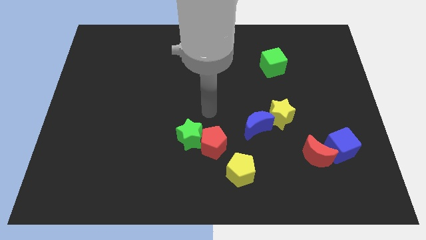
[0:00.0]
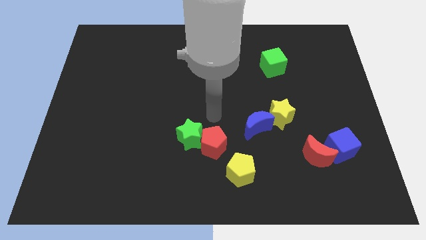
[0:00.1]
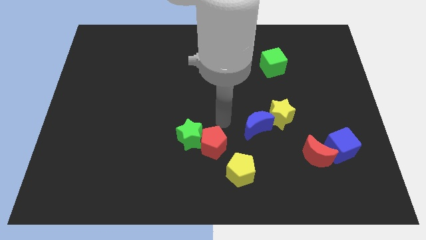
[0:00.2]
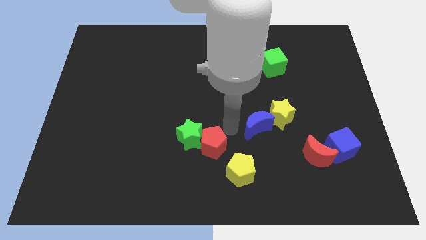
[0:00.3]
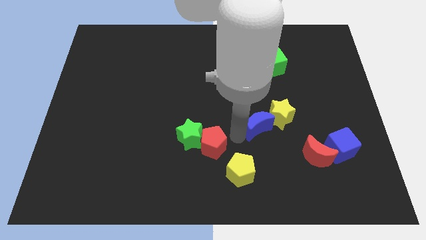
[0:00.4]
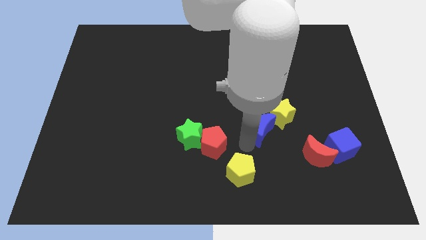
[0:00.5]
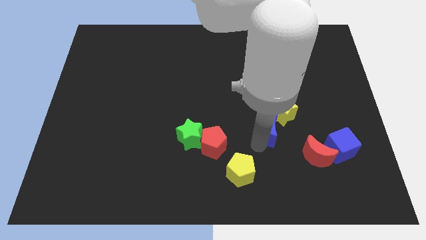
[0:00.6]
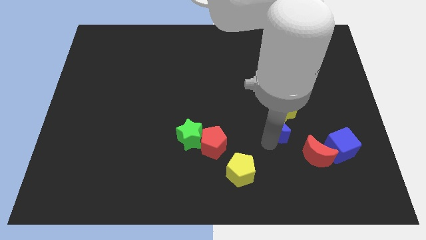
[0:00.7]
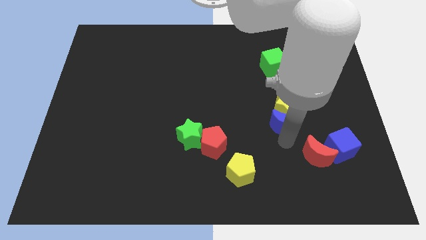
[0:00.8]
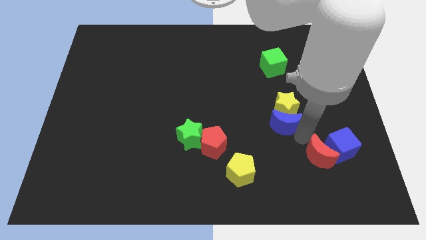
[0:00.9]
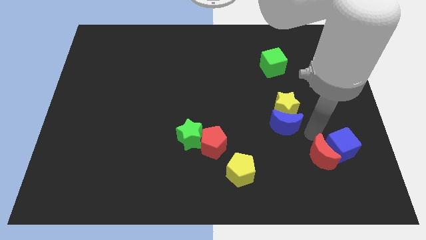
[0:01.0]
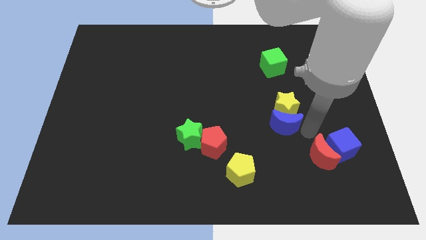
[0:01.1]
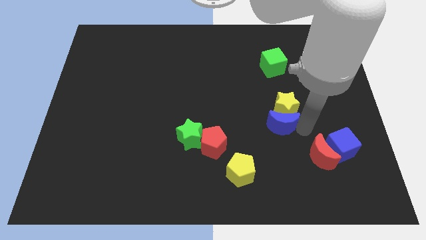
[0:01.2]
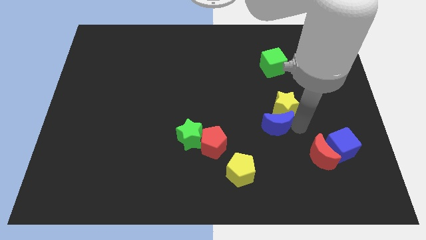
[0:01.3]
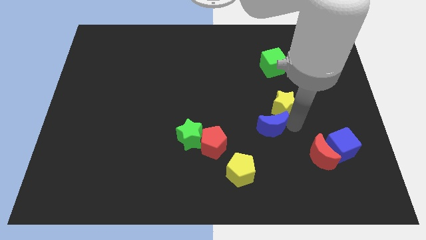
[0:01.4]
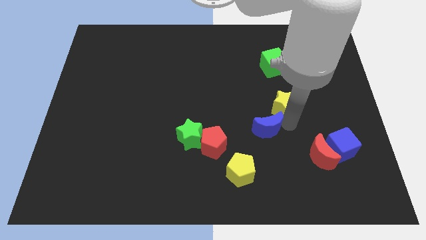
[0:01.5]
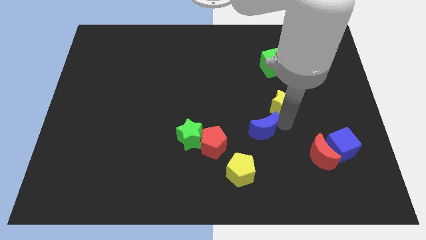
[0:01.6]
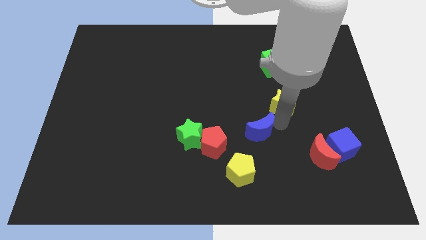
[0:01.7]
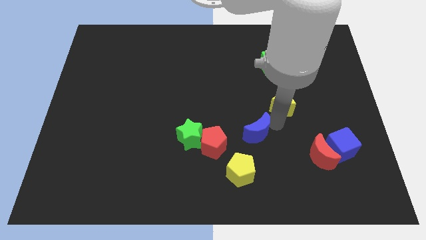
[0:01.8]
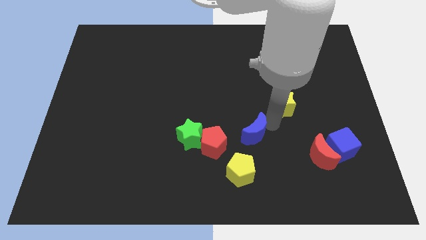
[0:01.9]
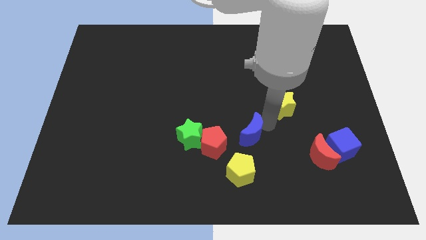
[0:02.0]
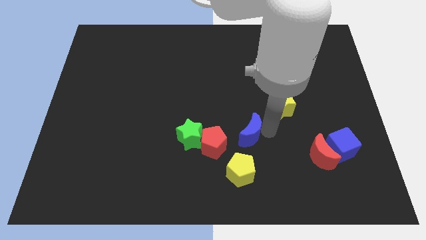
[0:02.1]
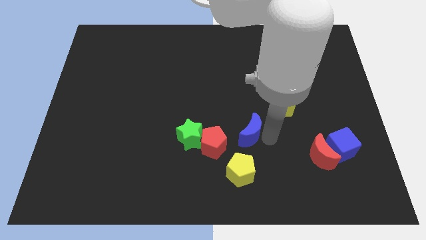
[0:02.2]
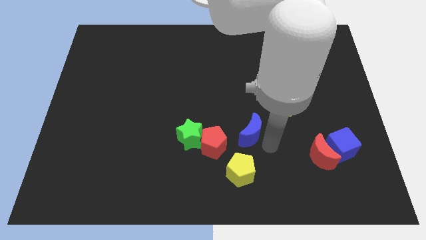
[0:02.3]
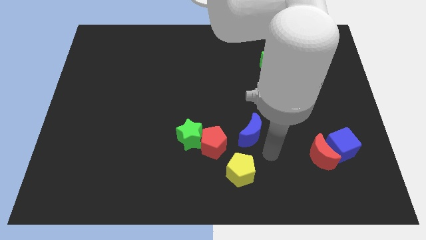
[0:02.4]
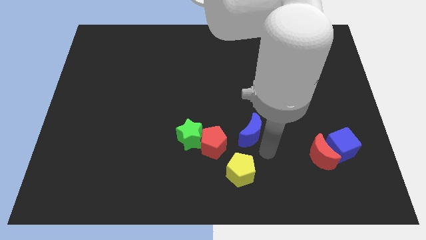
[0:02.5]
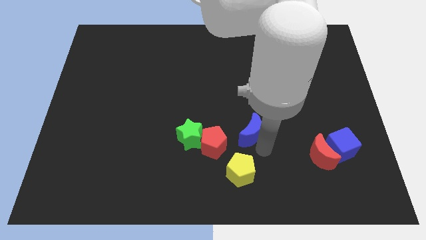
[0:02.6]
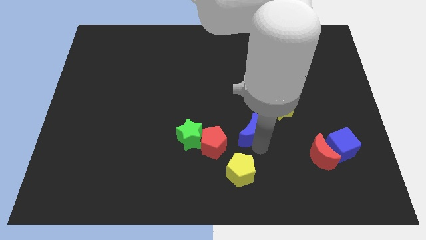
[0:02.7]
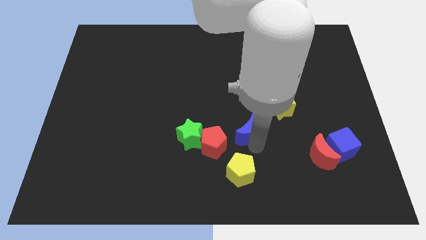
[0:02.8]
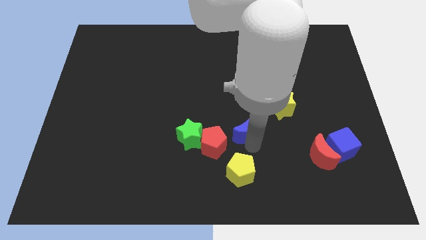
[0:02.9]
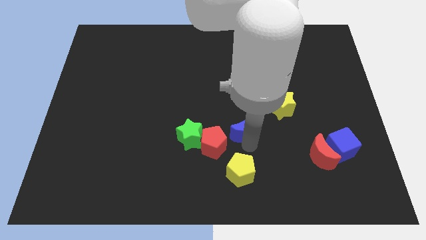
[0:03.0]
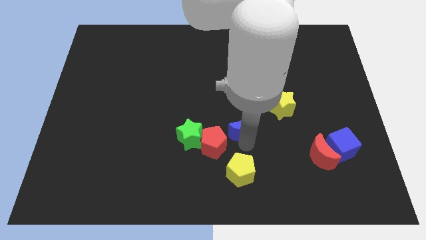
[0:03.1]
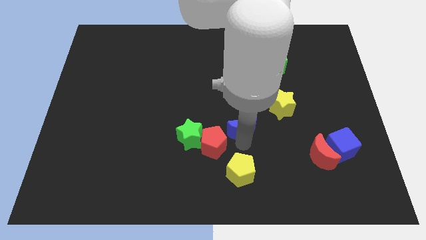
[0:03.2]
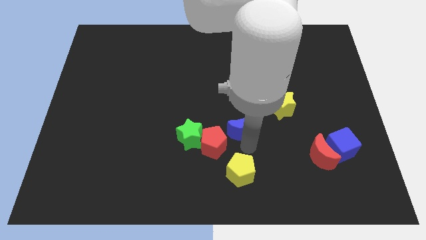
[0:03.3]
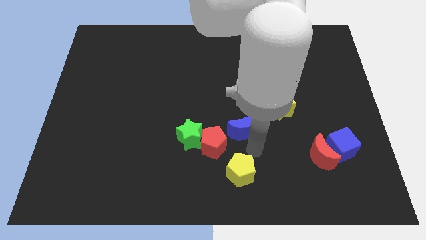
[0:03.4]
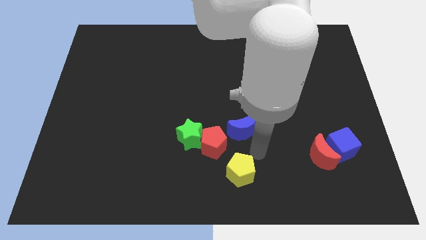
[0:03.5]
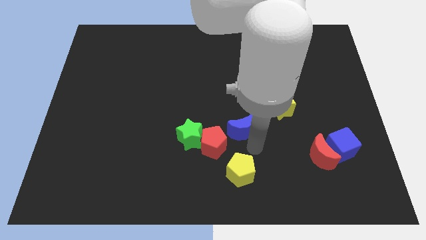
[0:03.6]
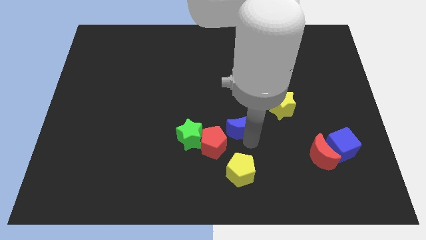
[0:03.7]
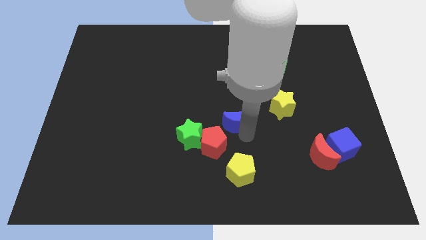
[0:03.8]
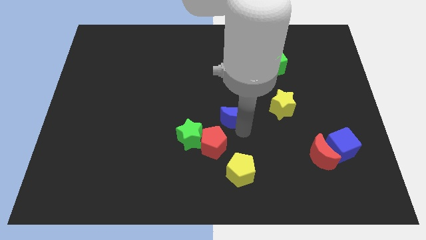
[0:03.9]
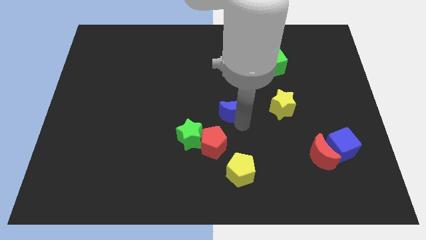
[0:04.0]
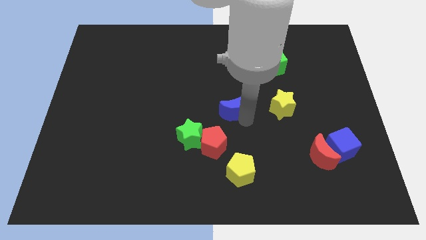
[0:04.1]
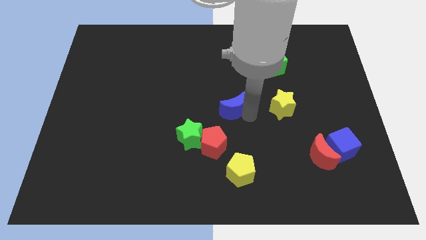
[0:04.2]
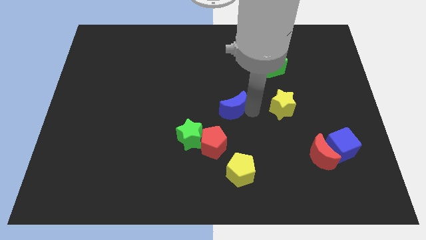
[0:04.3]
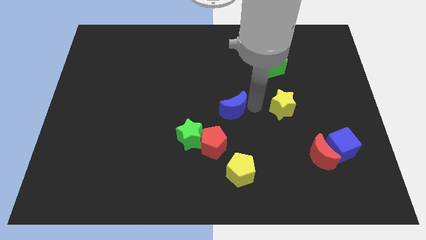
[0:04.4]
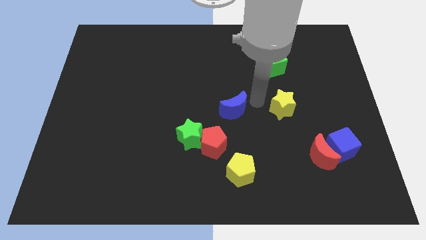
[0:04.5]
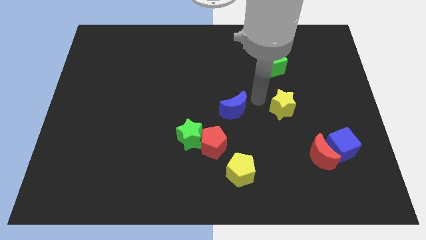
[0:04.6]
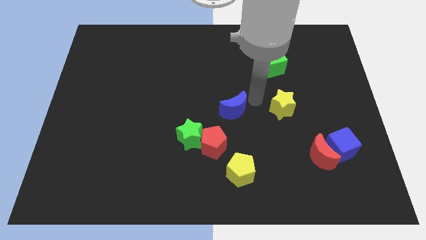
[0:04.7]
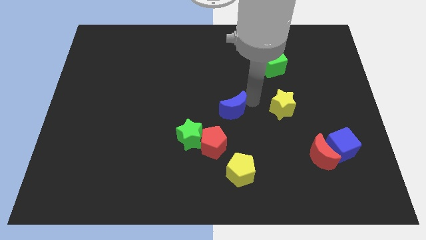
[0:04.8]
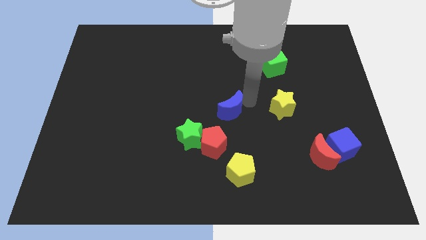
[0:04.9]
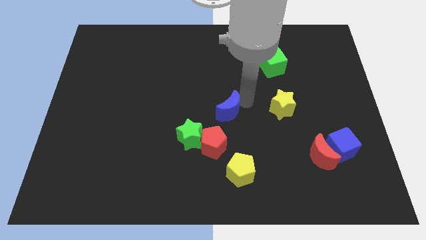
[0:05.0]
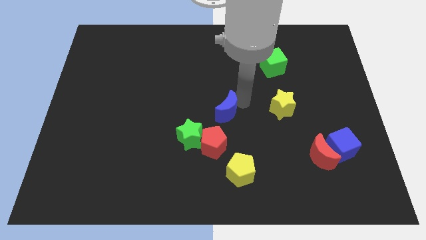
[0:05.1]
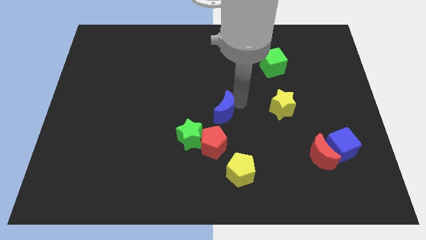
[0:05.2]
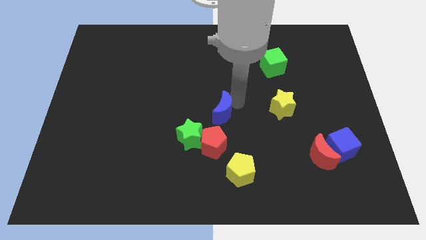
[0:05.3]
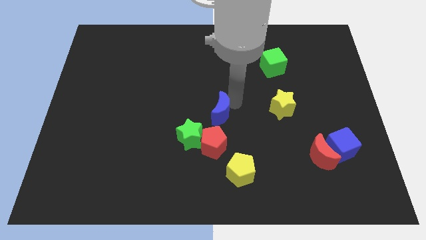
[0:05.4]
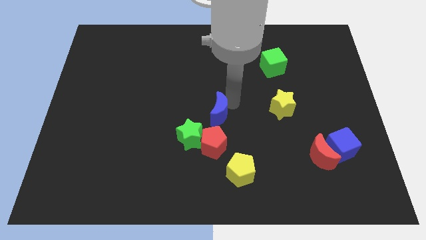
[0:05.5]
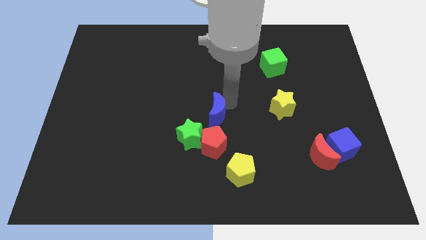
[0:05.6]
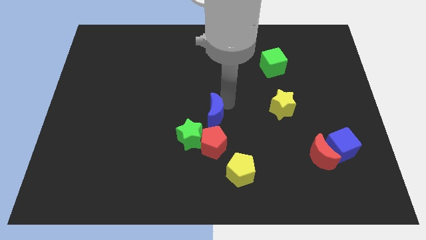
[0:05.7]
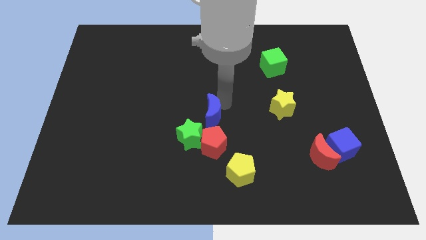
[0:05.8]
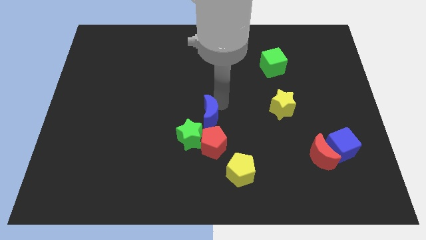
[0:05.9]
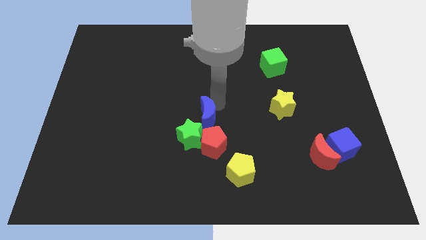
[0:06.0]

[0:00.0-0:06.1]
push the blue moon to the top left side of the red pentagon
